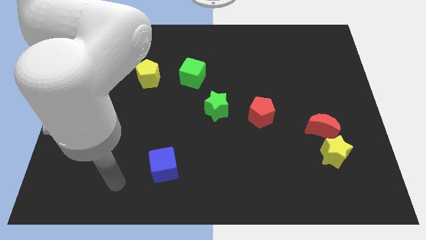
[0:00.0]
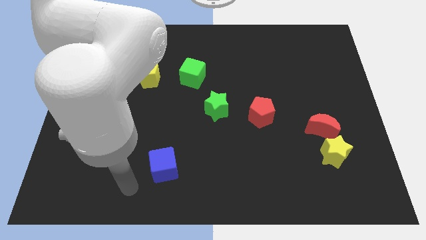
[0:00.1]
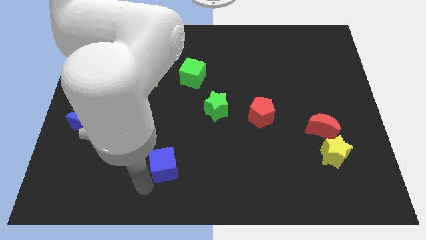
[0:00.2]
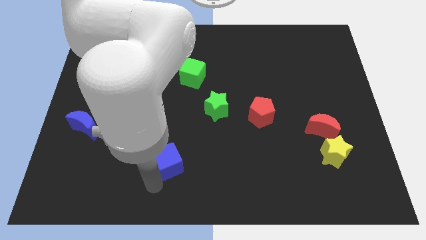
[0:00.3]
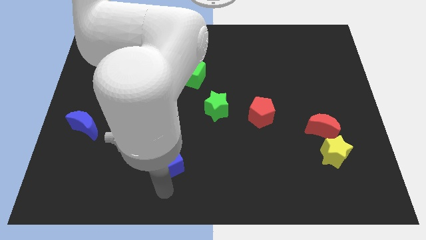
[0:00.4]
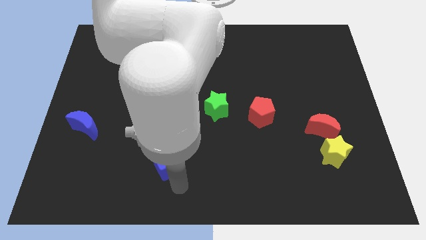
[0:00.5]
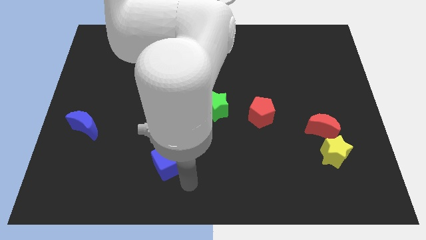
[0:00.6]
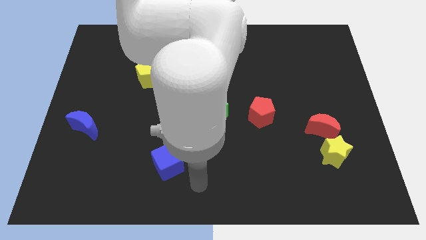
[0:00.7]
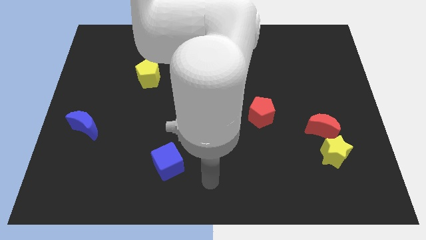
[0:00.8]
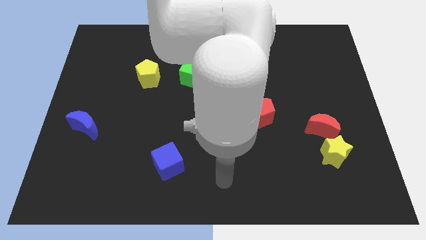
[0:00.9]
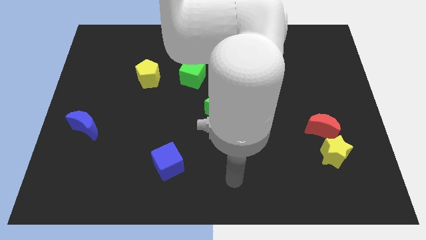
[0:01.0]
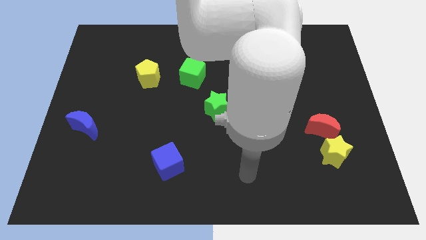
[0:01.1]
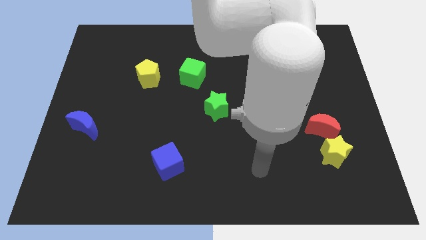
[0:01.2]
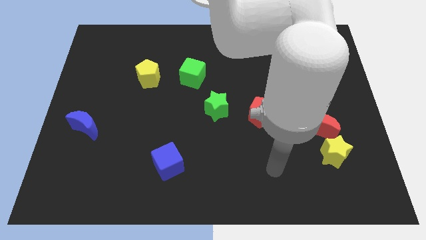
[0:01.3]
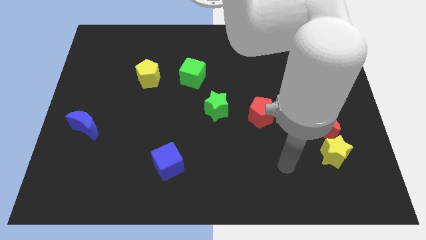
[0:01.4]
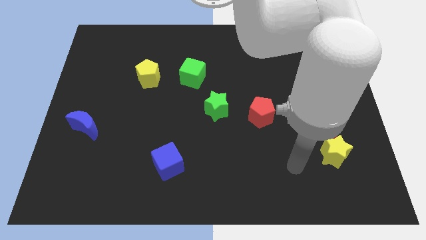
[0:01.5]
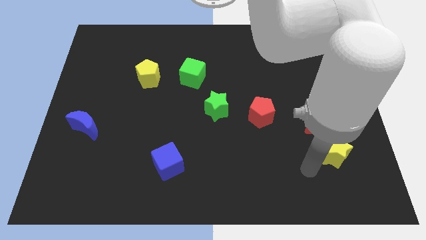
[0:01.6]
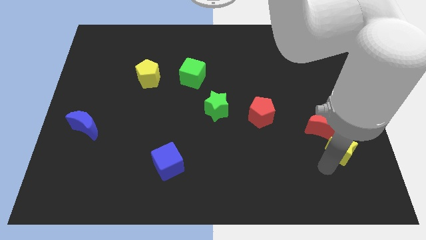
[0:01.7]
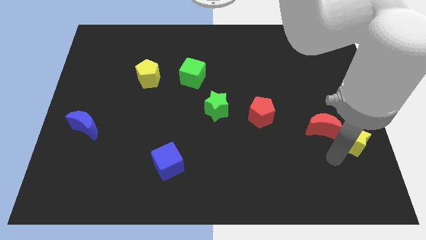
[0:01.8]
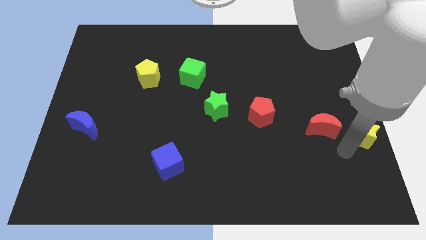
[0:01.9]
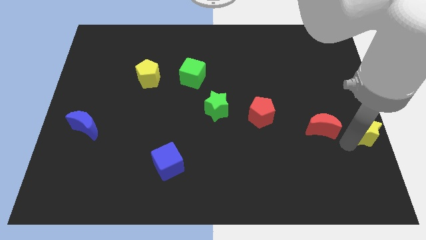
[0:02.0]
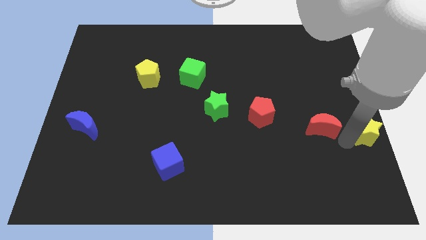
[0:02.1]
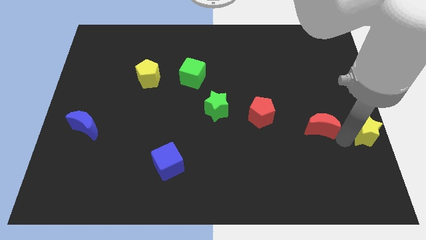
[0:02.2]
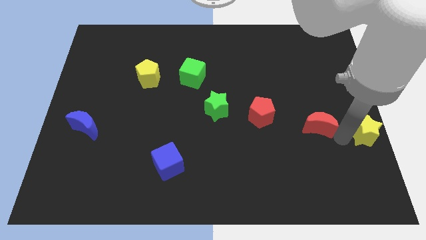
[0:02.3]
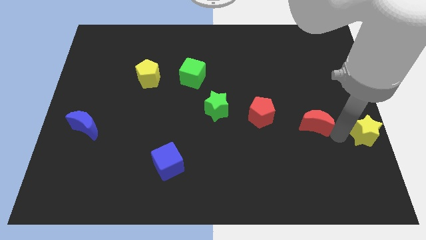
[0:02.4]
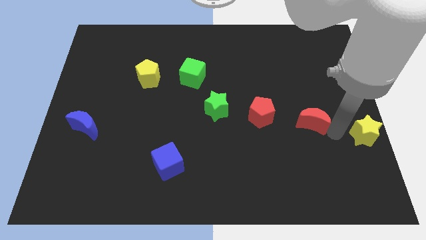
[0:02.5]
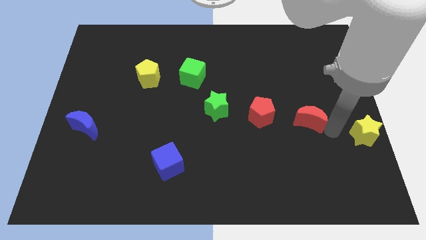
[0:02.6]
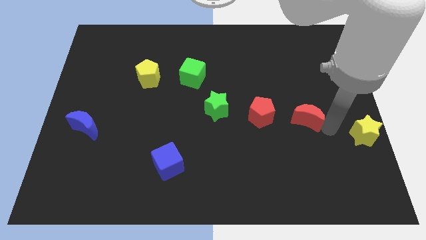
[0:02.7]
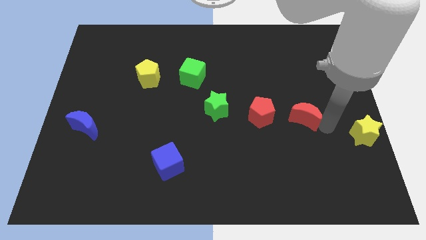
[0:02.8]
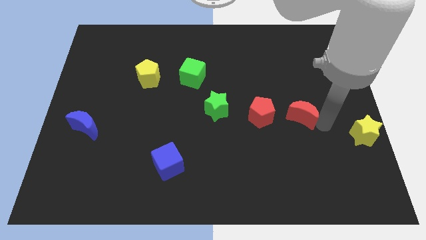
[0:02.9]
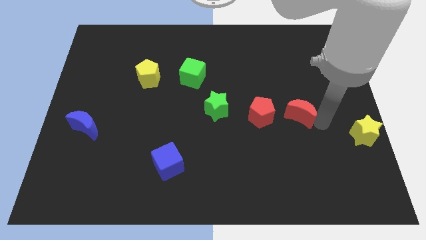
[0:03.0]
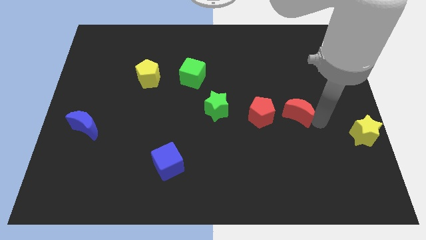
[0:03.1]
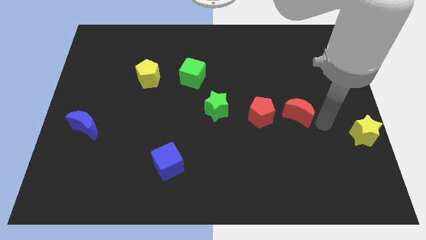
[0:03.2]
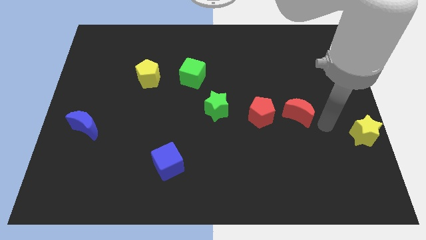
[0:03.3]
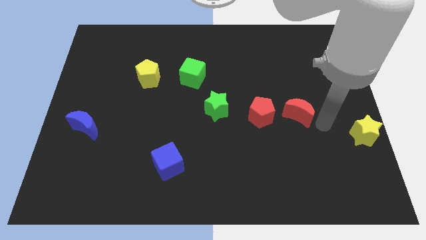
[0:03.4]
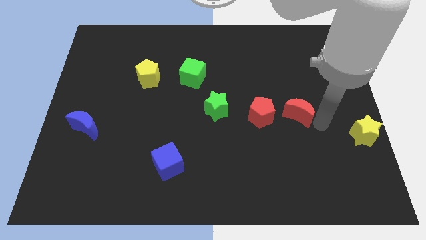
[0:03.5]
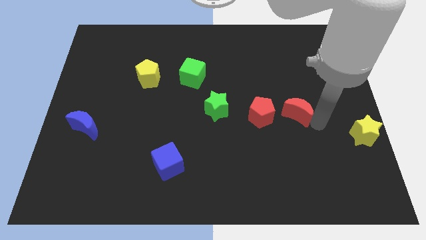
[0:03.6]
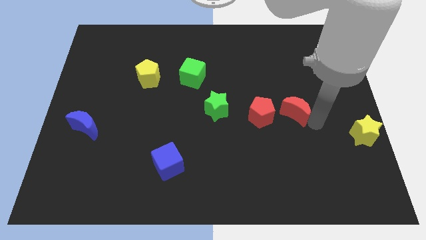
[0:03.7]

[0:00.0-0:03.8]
move the red moon slightly diagonally upwards and left

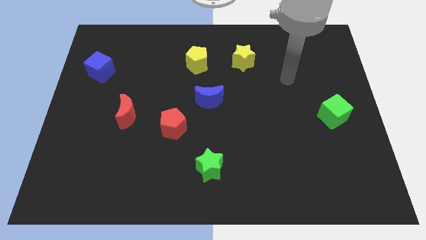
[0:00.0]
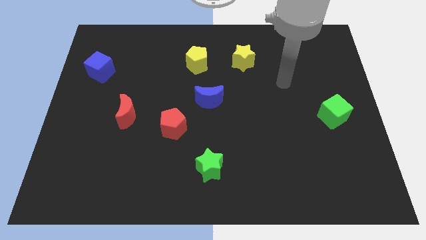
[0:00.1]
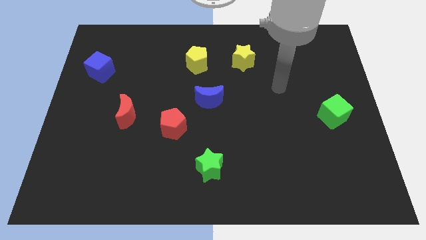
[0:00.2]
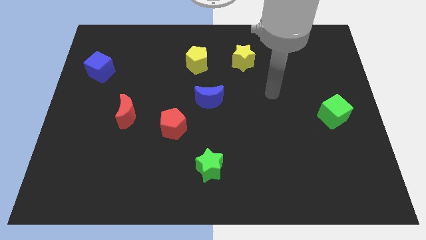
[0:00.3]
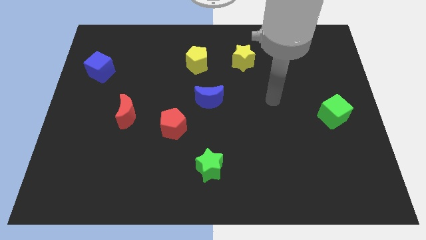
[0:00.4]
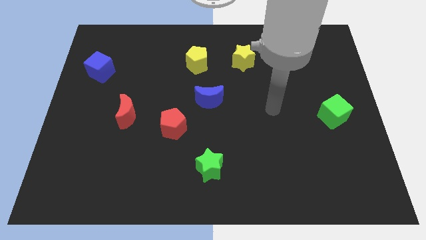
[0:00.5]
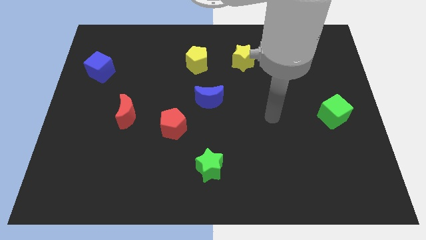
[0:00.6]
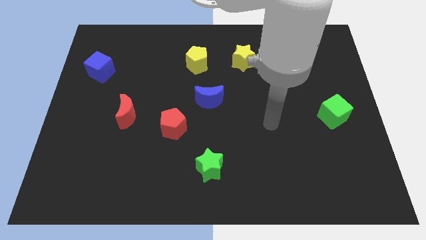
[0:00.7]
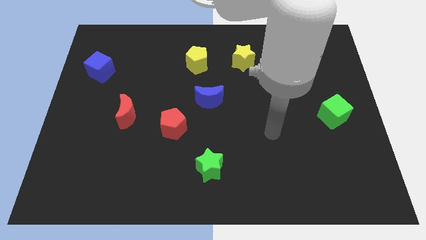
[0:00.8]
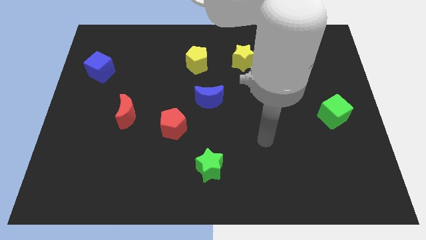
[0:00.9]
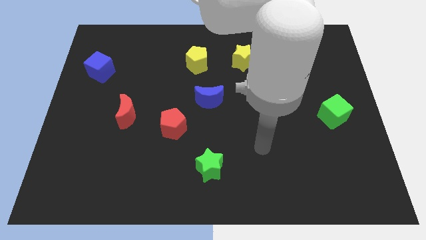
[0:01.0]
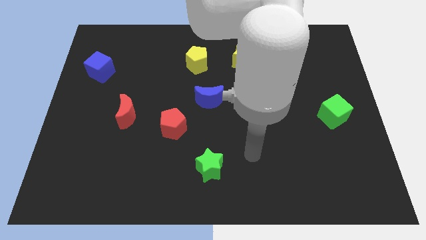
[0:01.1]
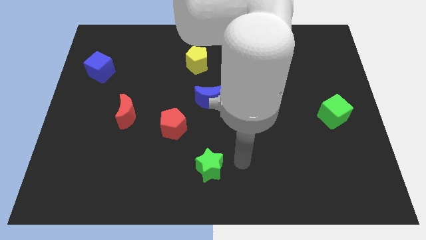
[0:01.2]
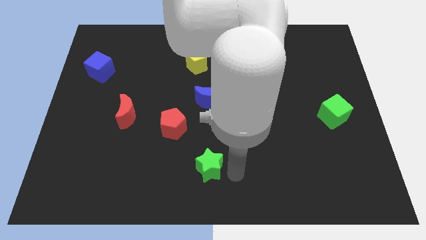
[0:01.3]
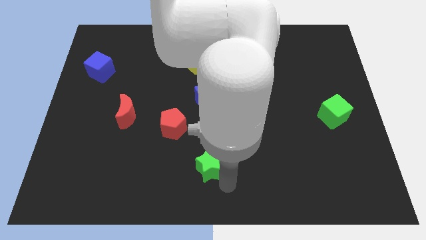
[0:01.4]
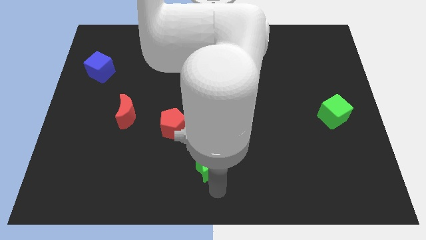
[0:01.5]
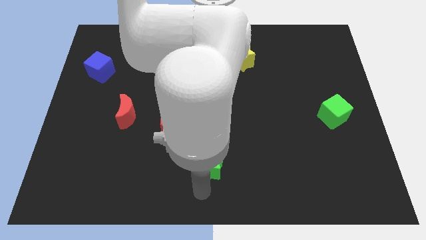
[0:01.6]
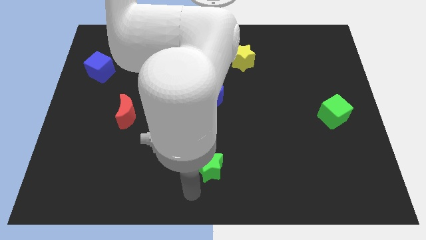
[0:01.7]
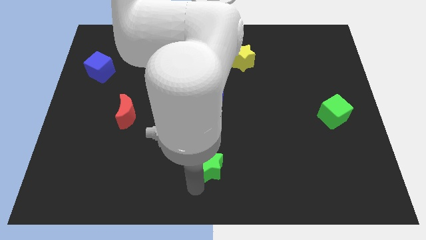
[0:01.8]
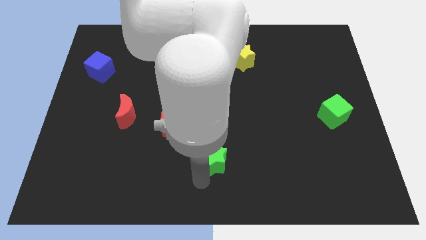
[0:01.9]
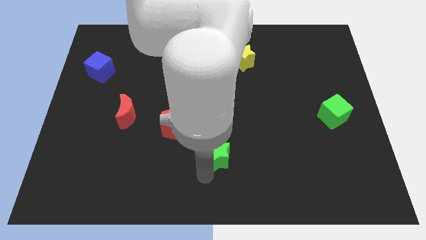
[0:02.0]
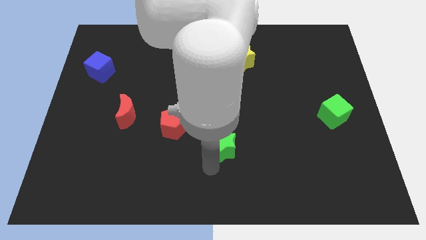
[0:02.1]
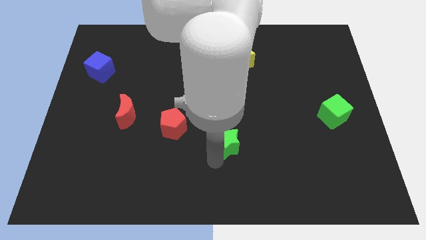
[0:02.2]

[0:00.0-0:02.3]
push the green star upwards and to the right diagonally a little bit

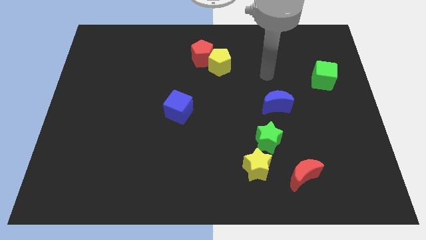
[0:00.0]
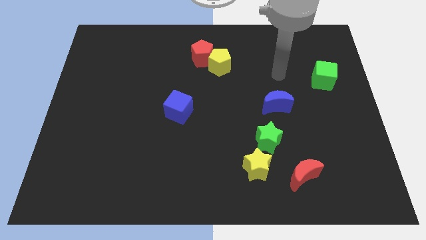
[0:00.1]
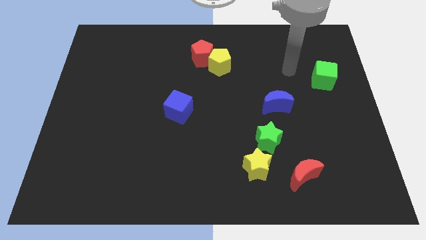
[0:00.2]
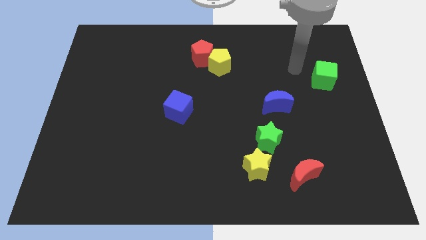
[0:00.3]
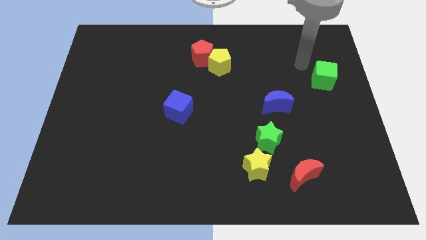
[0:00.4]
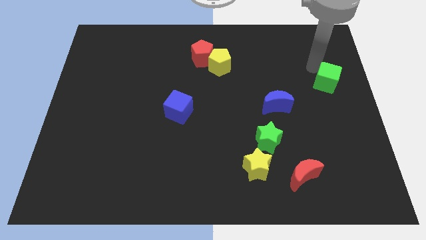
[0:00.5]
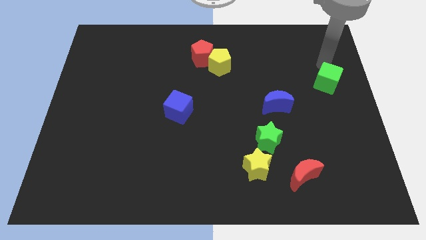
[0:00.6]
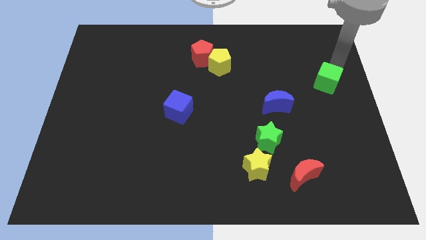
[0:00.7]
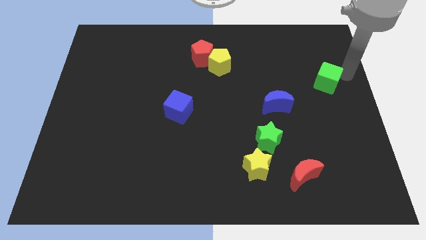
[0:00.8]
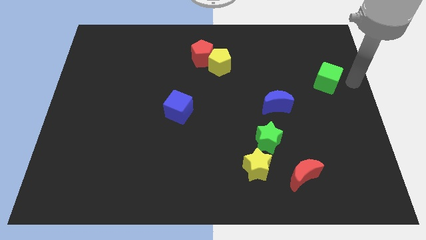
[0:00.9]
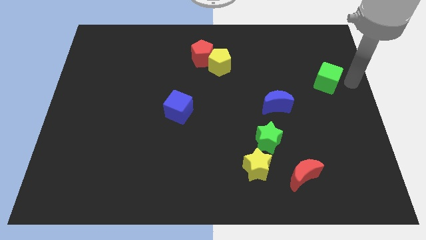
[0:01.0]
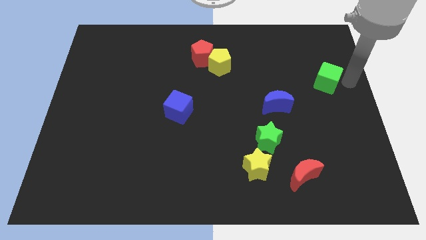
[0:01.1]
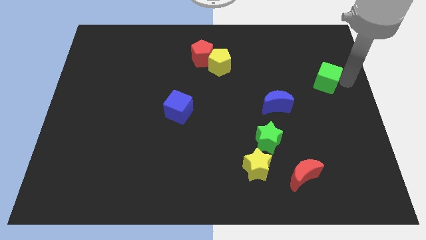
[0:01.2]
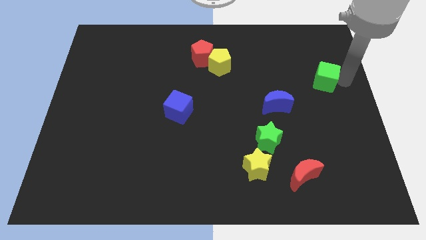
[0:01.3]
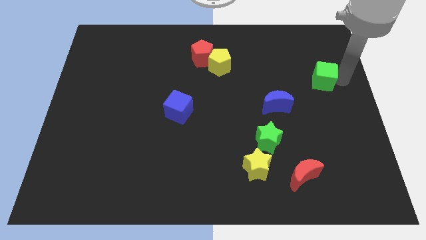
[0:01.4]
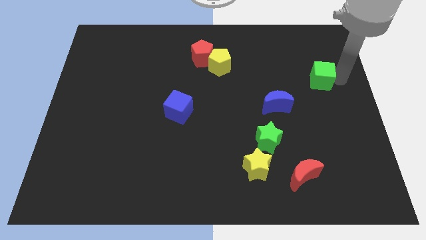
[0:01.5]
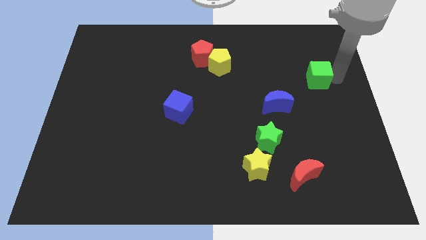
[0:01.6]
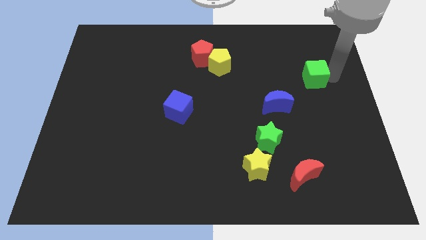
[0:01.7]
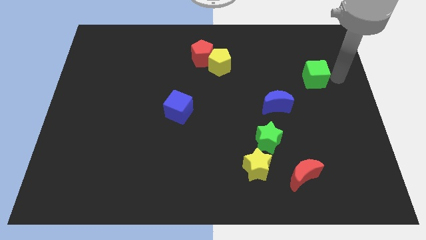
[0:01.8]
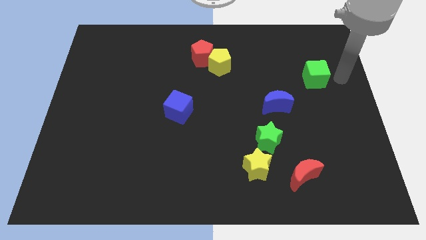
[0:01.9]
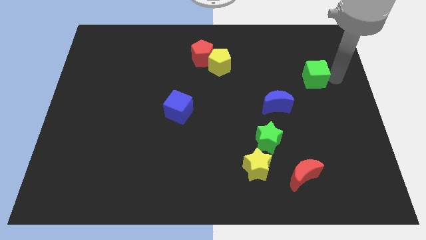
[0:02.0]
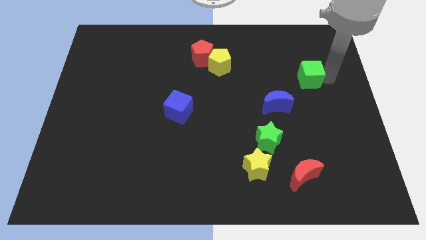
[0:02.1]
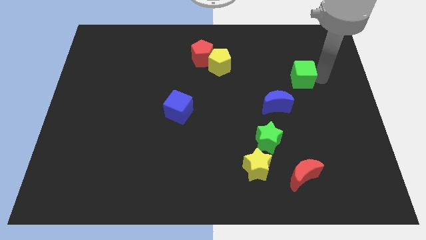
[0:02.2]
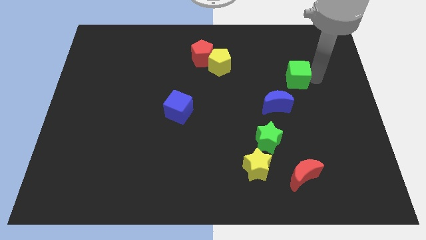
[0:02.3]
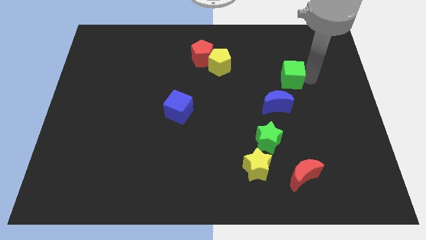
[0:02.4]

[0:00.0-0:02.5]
slide the green cube a little bit to the left
